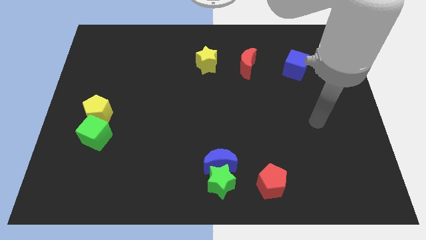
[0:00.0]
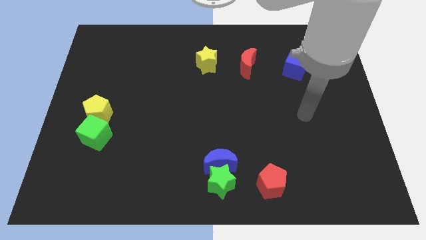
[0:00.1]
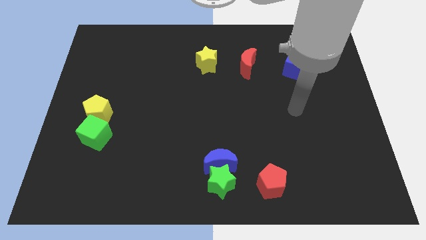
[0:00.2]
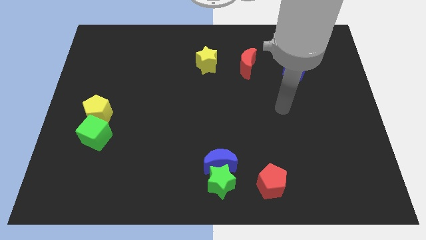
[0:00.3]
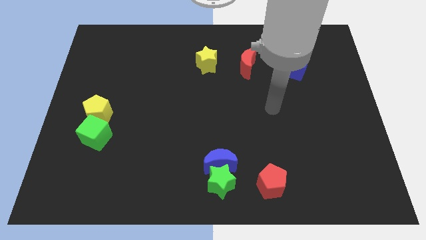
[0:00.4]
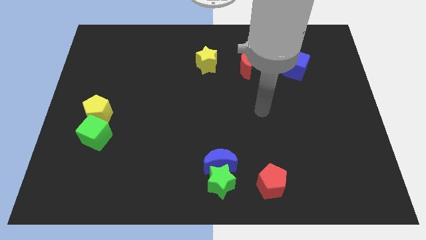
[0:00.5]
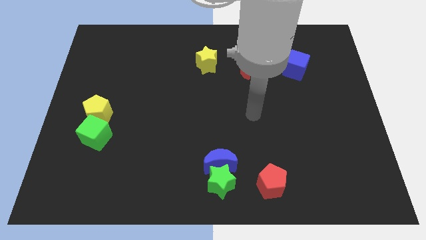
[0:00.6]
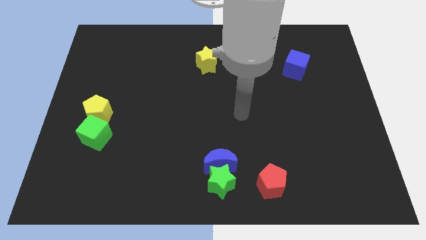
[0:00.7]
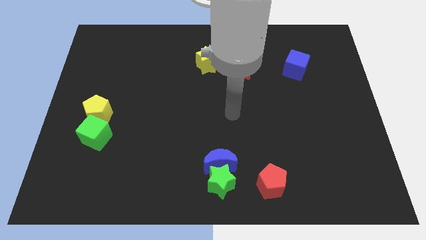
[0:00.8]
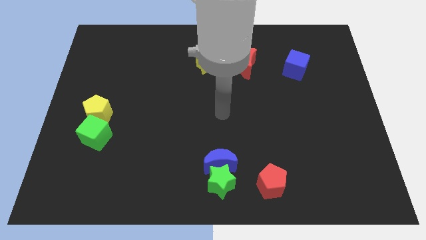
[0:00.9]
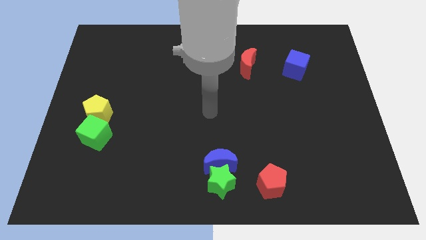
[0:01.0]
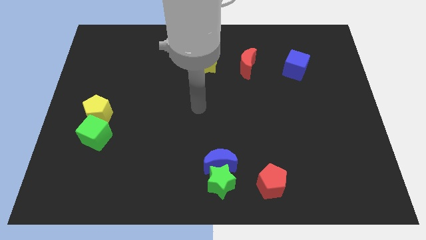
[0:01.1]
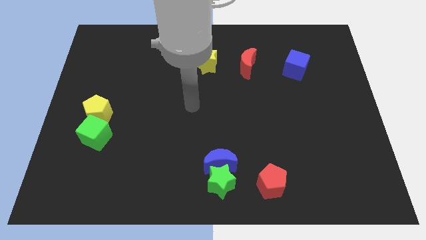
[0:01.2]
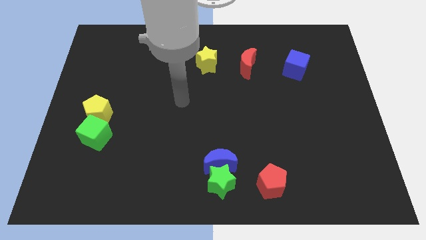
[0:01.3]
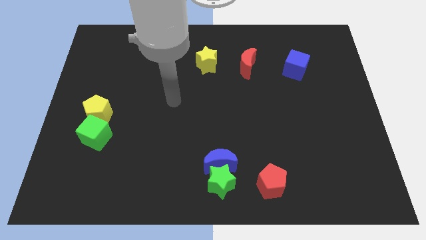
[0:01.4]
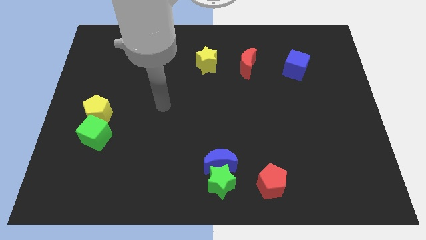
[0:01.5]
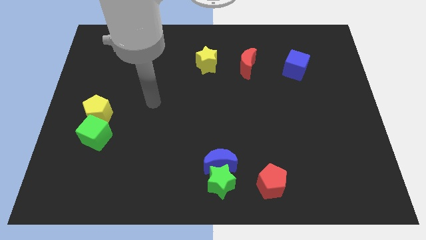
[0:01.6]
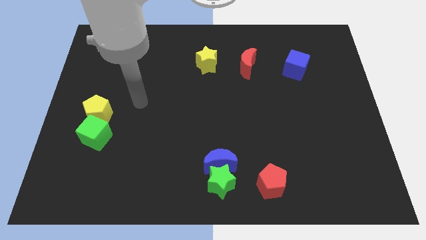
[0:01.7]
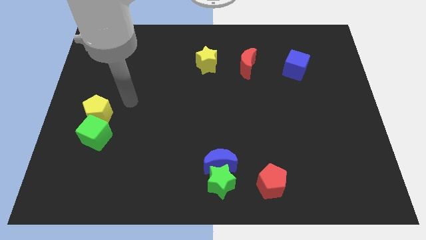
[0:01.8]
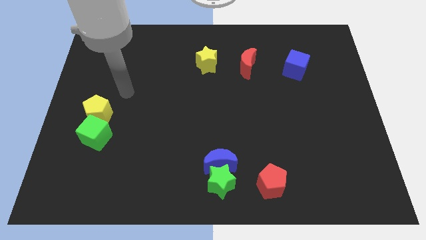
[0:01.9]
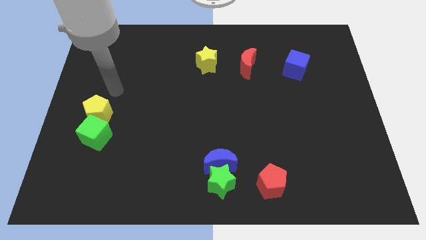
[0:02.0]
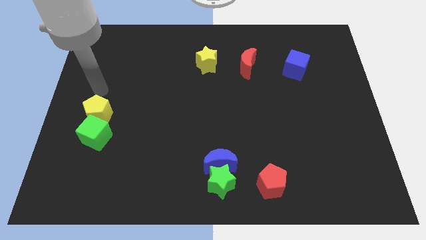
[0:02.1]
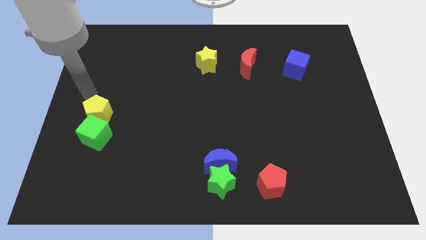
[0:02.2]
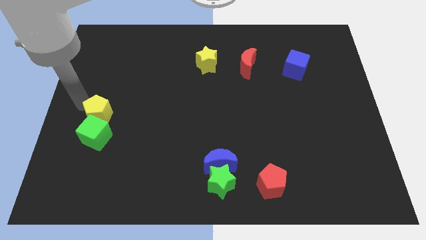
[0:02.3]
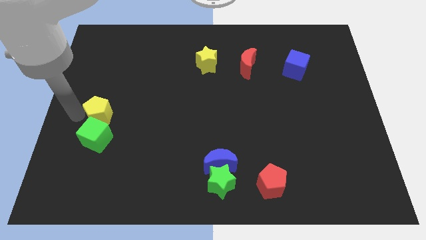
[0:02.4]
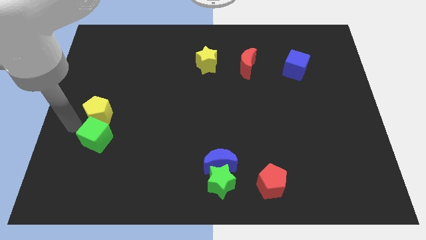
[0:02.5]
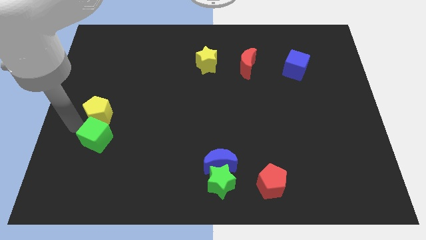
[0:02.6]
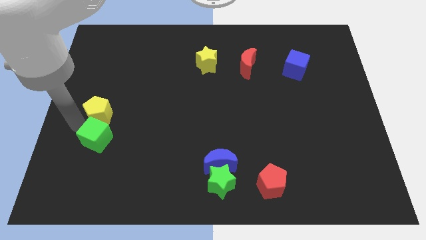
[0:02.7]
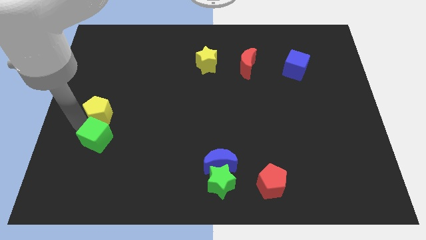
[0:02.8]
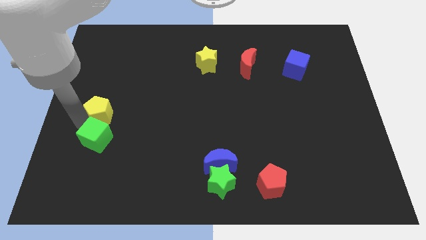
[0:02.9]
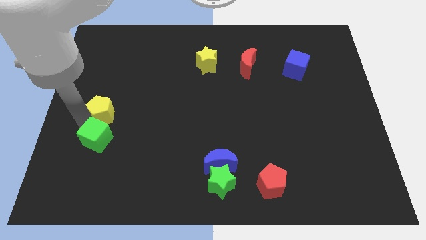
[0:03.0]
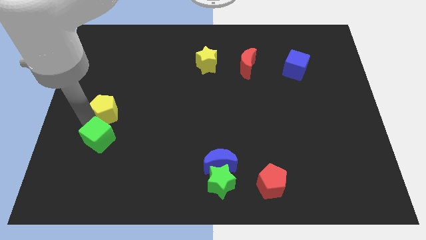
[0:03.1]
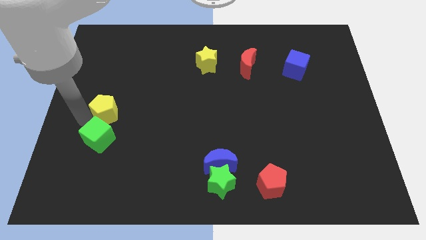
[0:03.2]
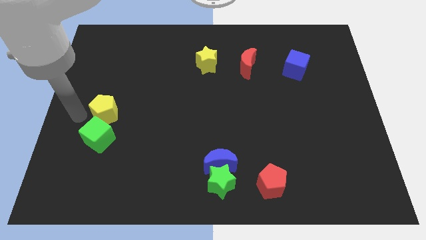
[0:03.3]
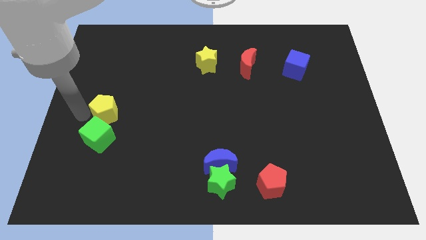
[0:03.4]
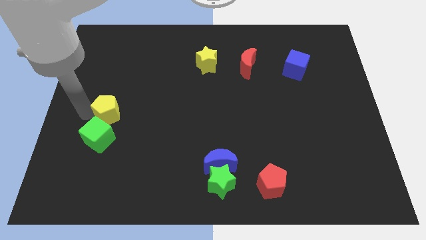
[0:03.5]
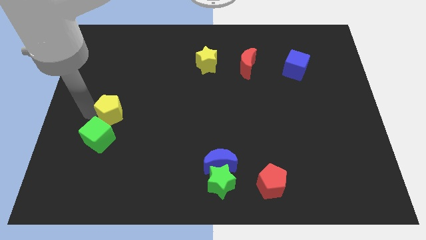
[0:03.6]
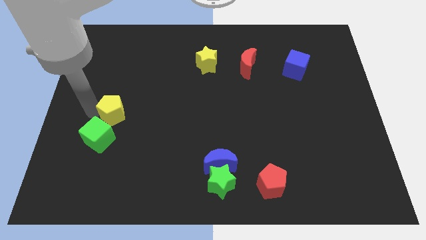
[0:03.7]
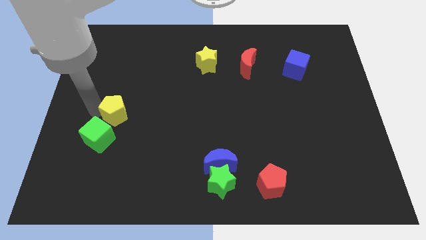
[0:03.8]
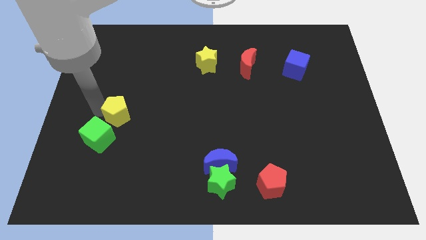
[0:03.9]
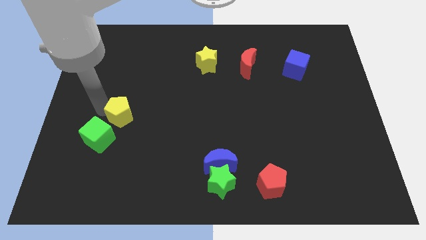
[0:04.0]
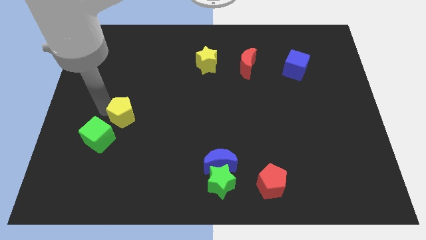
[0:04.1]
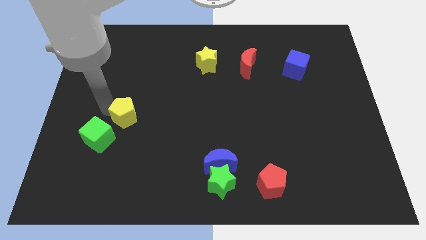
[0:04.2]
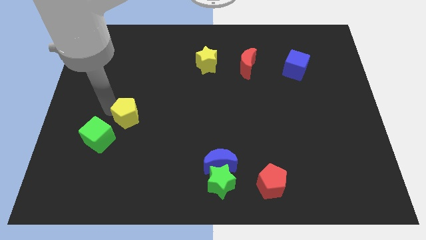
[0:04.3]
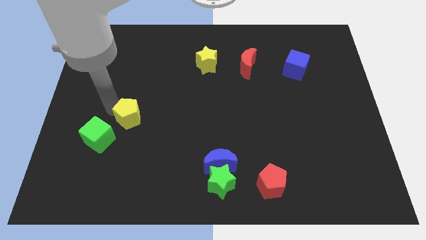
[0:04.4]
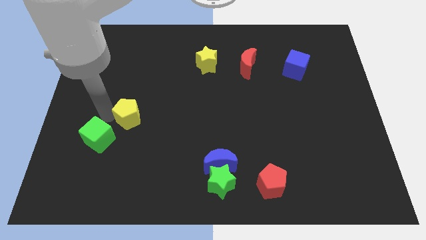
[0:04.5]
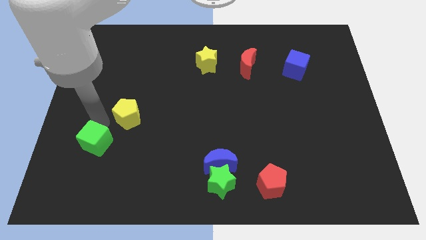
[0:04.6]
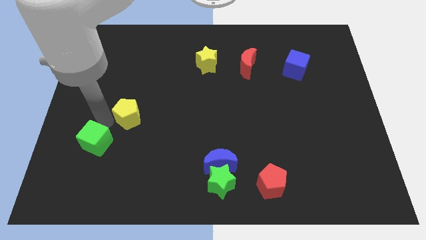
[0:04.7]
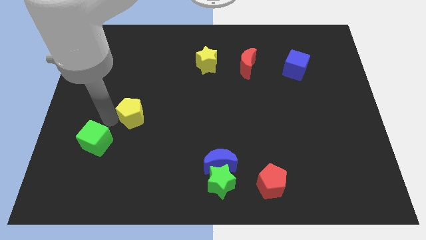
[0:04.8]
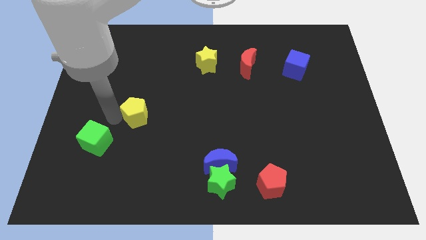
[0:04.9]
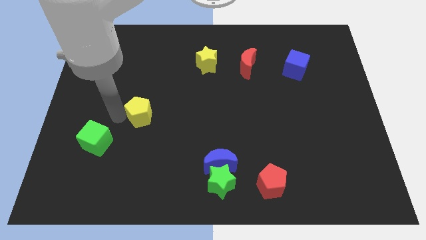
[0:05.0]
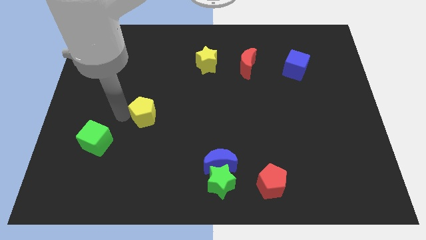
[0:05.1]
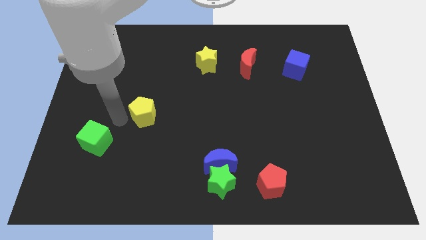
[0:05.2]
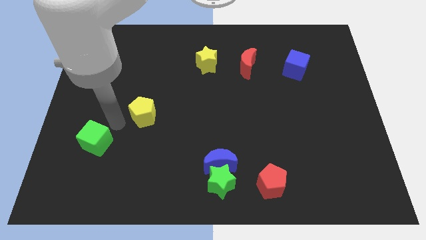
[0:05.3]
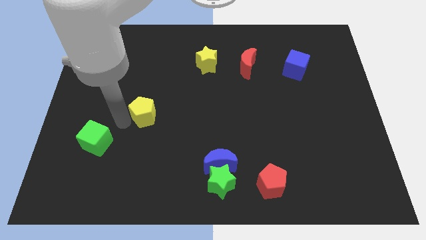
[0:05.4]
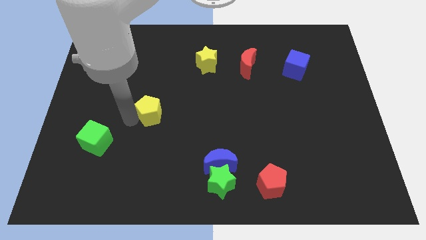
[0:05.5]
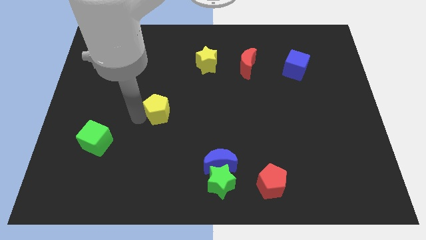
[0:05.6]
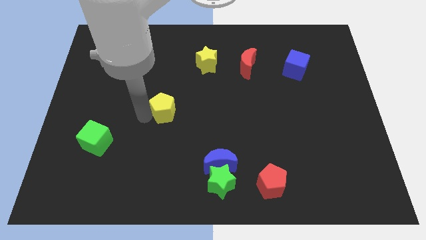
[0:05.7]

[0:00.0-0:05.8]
push the yellow pentagon to the middle
